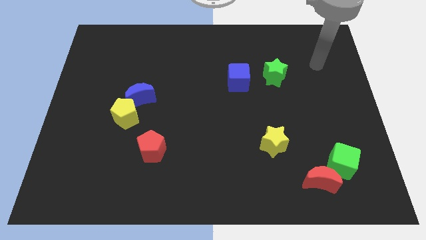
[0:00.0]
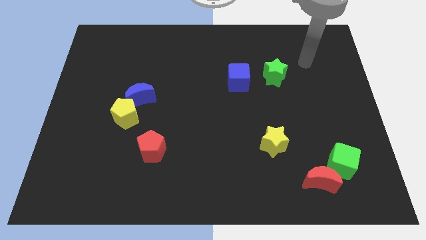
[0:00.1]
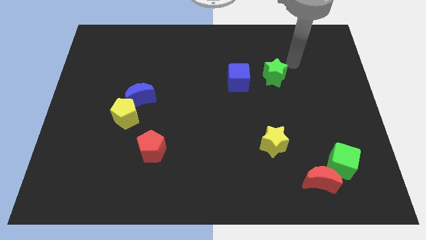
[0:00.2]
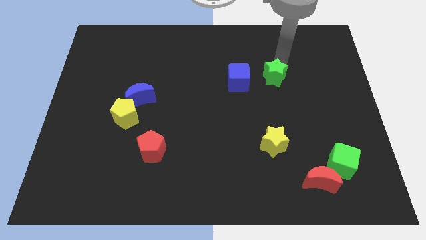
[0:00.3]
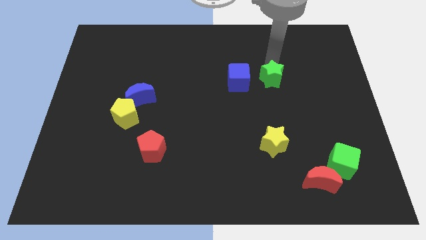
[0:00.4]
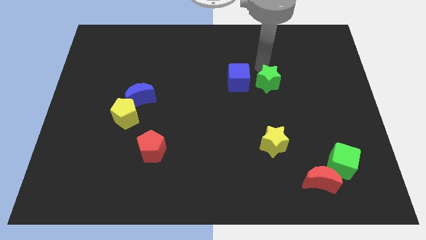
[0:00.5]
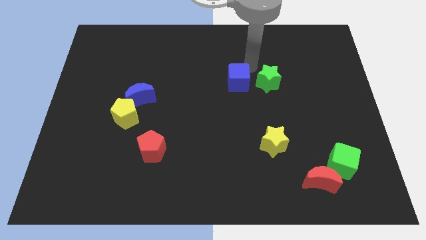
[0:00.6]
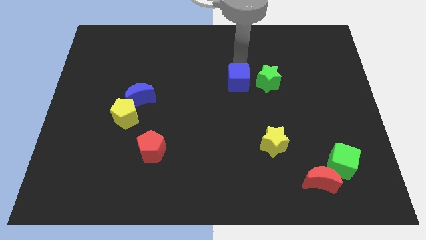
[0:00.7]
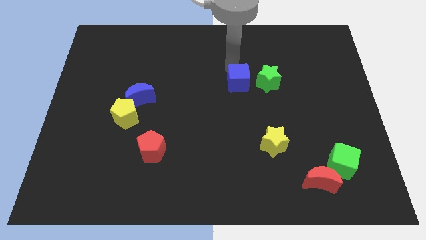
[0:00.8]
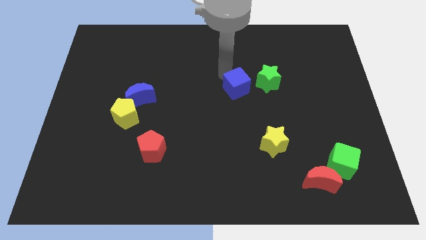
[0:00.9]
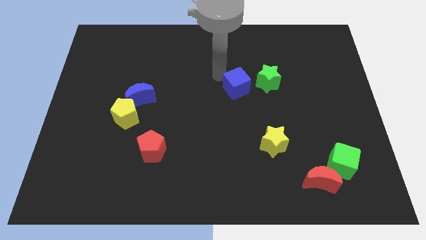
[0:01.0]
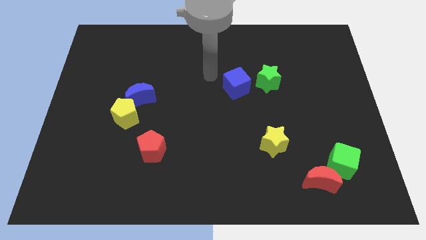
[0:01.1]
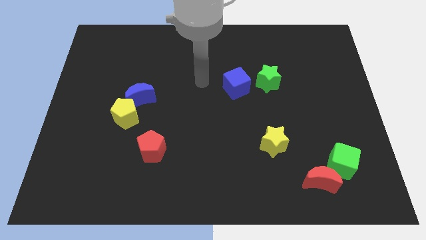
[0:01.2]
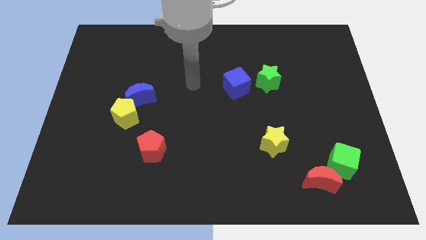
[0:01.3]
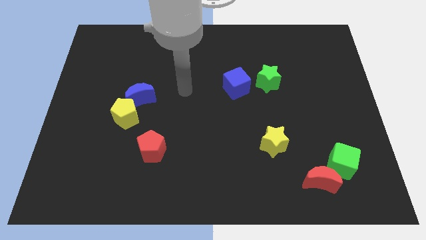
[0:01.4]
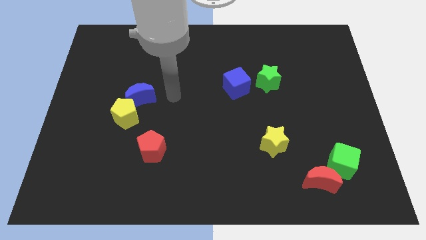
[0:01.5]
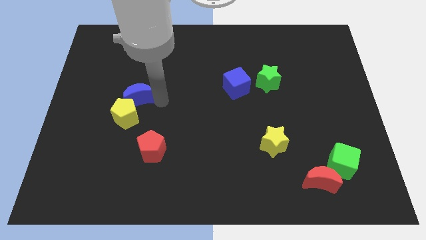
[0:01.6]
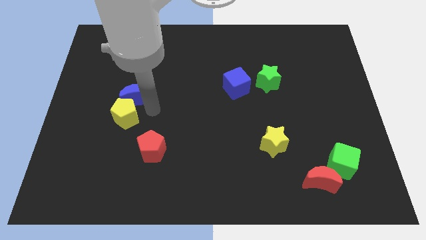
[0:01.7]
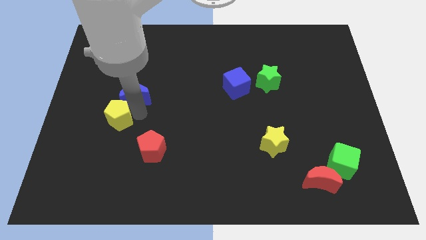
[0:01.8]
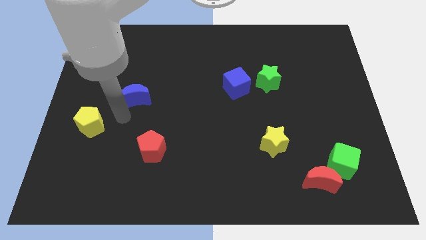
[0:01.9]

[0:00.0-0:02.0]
move the blue moon away from the yellow pentagon

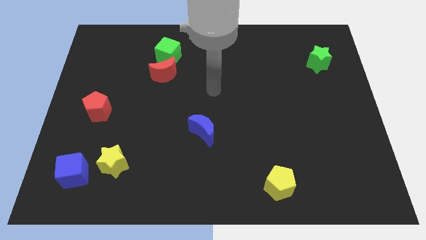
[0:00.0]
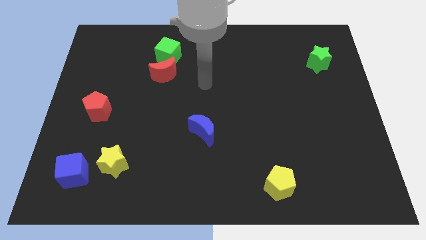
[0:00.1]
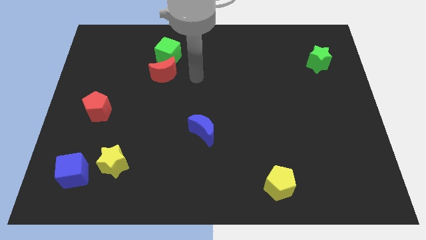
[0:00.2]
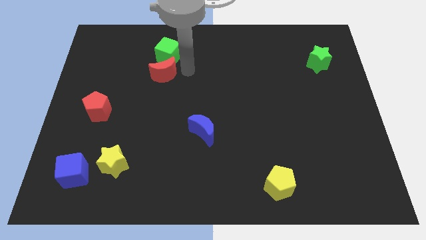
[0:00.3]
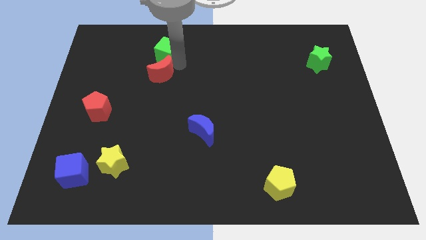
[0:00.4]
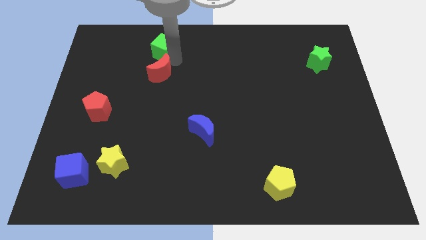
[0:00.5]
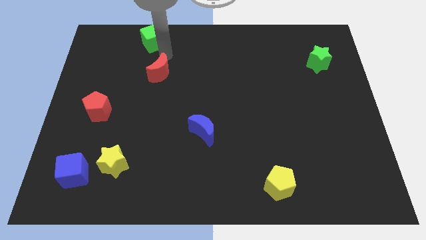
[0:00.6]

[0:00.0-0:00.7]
move the red moon away from the green cube

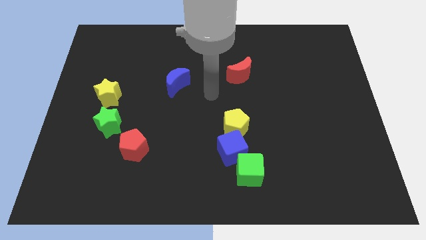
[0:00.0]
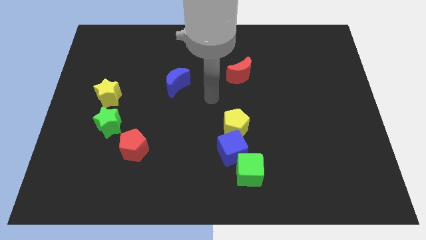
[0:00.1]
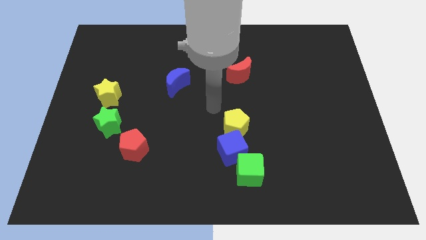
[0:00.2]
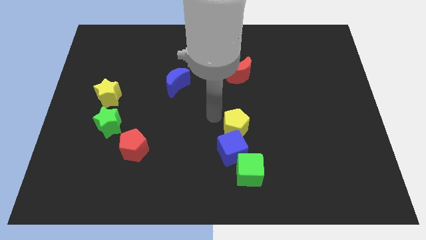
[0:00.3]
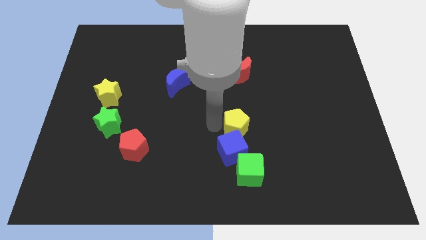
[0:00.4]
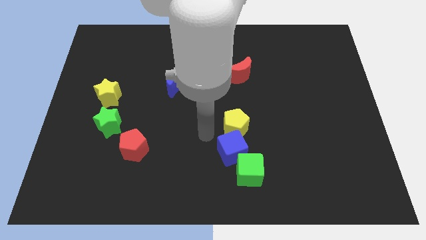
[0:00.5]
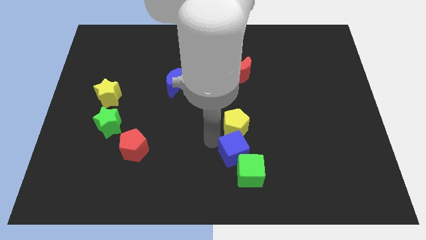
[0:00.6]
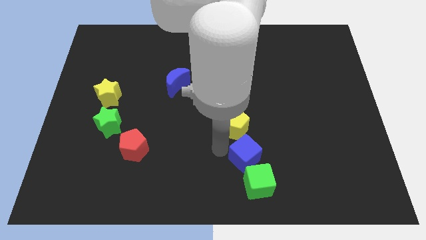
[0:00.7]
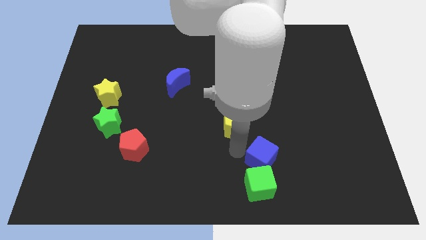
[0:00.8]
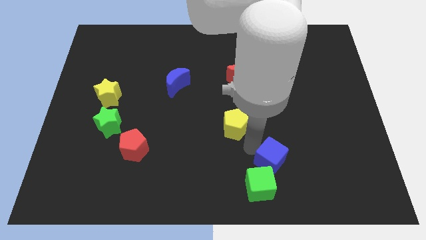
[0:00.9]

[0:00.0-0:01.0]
move the yellow pentagon away from the blue cube

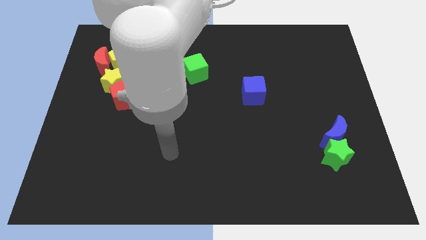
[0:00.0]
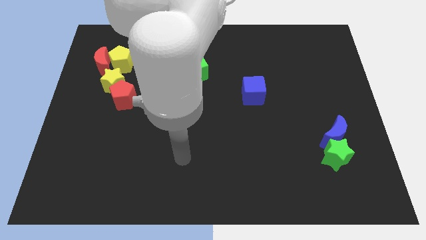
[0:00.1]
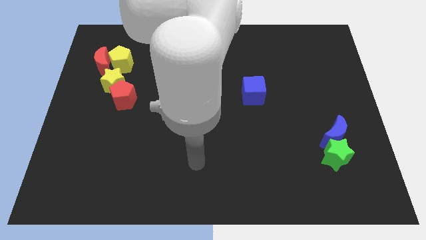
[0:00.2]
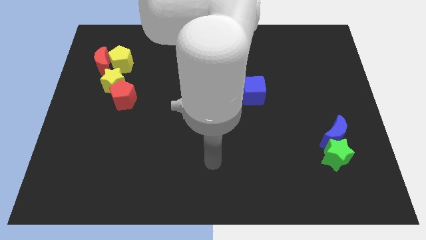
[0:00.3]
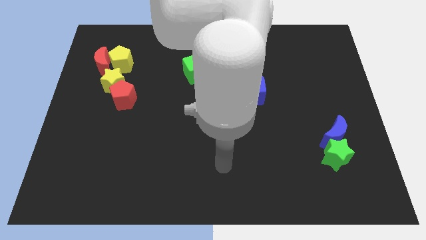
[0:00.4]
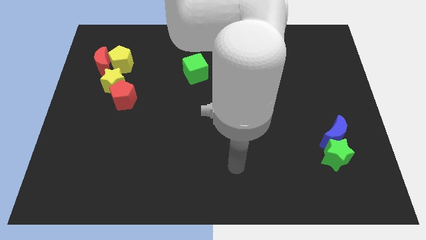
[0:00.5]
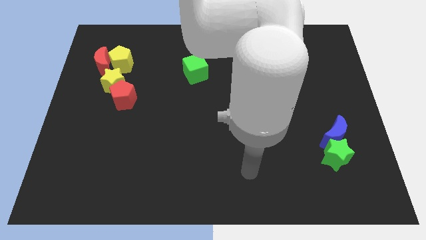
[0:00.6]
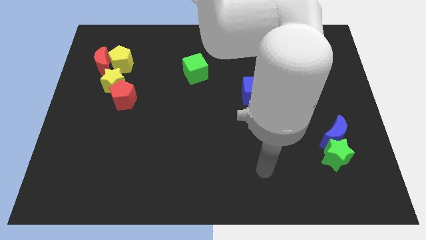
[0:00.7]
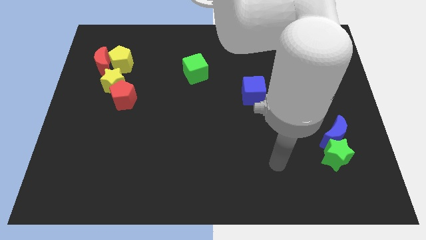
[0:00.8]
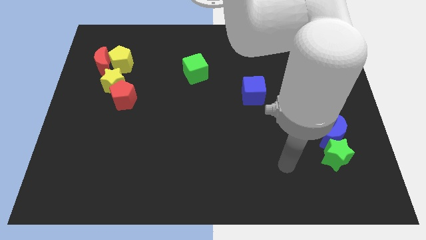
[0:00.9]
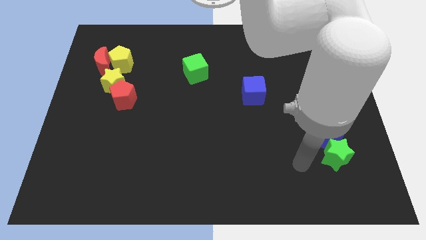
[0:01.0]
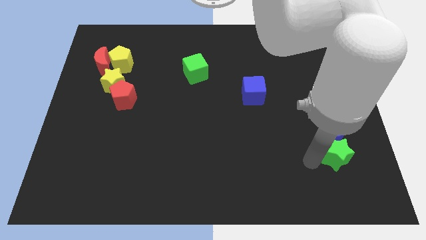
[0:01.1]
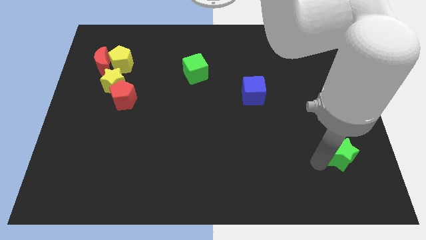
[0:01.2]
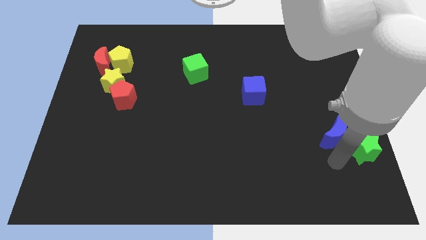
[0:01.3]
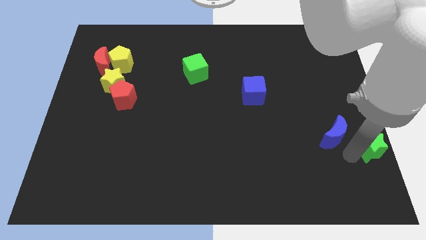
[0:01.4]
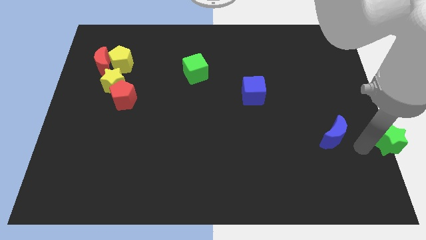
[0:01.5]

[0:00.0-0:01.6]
separate the blue moon from the green star

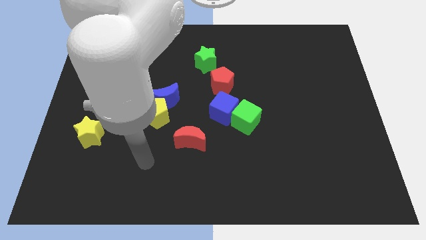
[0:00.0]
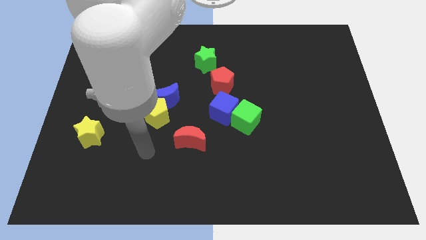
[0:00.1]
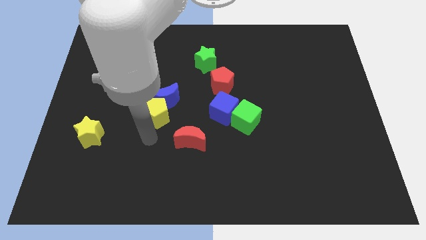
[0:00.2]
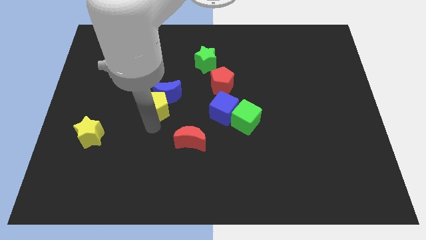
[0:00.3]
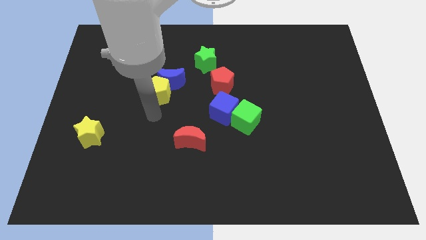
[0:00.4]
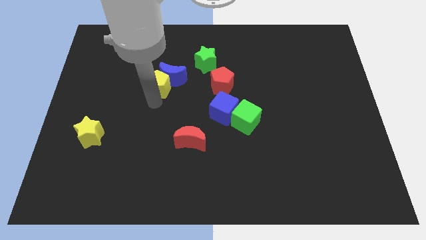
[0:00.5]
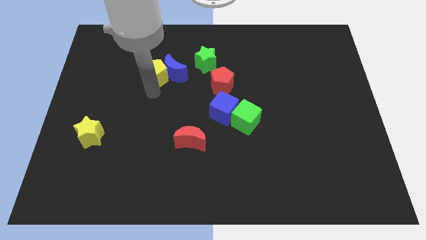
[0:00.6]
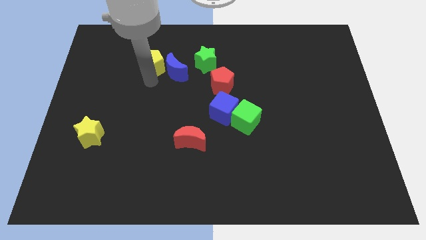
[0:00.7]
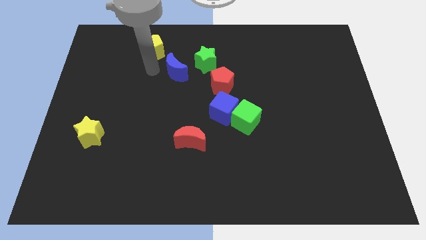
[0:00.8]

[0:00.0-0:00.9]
separate the blue moon from the yellow pentagon

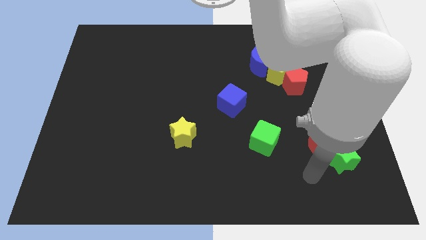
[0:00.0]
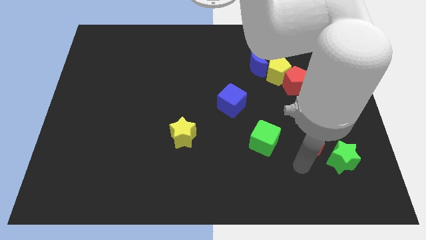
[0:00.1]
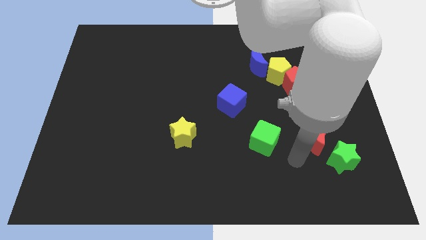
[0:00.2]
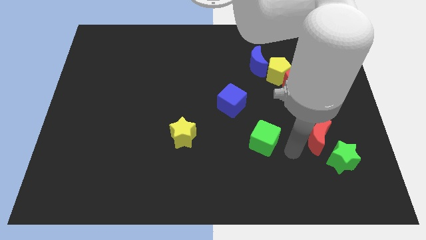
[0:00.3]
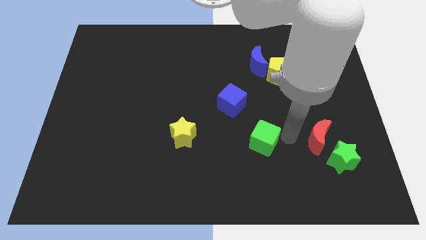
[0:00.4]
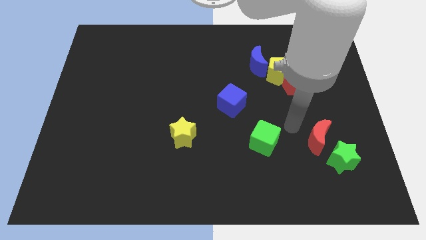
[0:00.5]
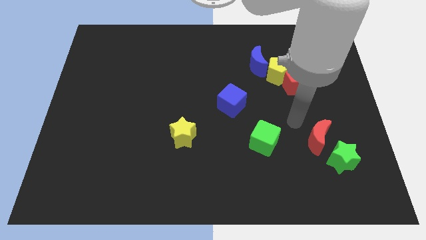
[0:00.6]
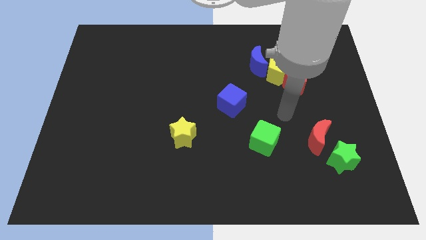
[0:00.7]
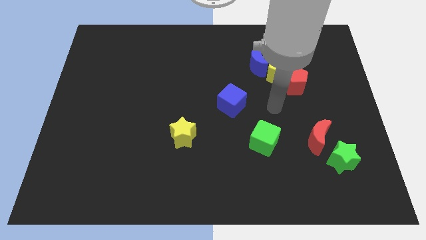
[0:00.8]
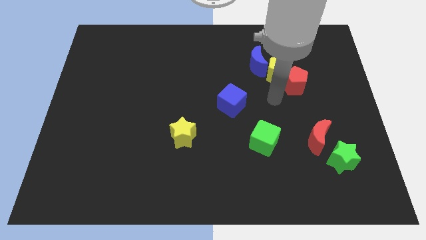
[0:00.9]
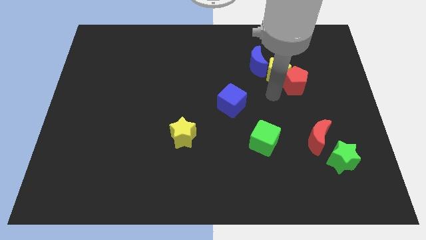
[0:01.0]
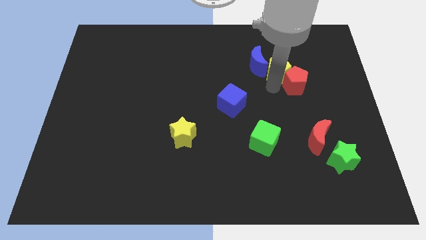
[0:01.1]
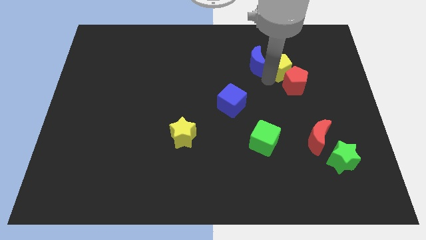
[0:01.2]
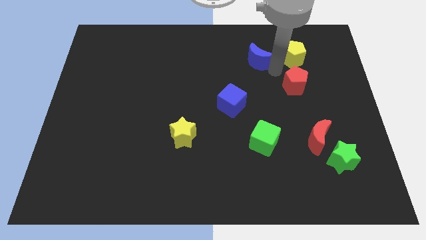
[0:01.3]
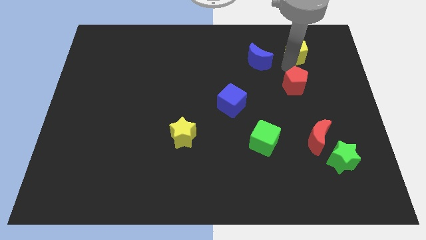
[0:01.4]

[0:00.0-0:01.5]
pull the red pentagon apart from the yellow pentagon

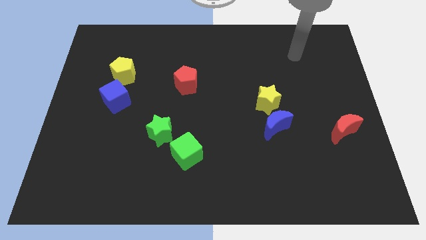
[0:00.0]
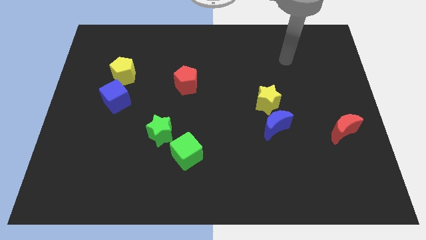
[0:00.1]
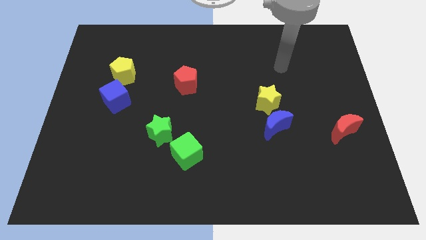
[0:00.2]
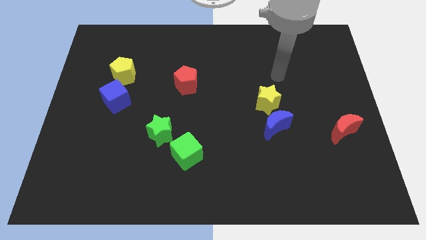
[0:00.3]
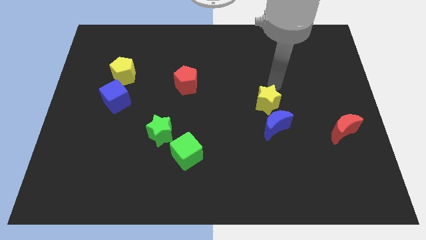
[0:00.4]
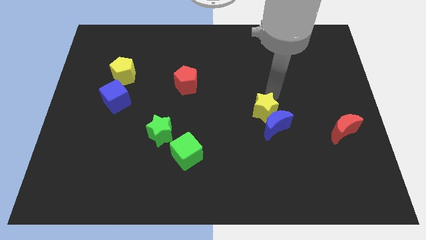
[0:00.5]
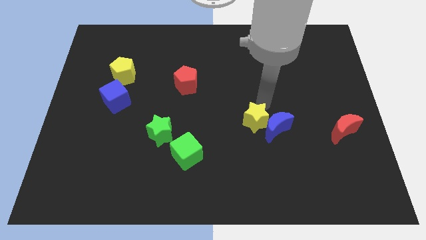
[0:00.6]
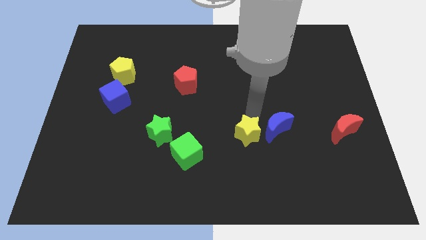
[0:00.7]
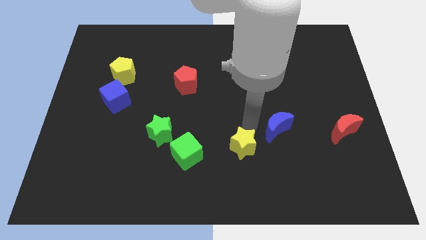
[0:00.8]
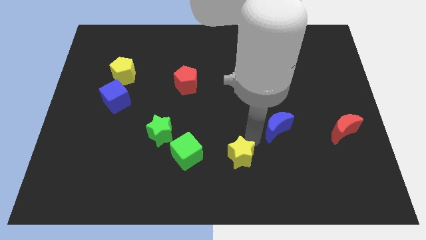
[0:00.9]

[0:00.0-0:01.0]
move the blue moon away from the yellow star

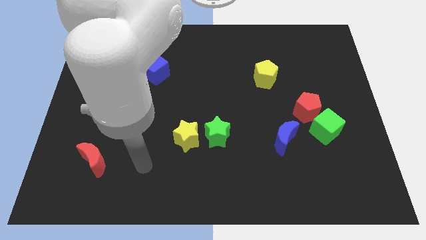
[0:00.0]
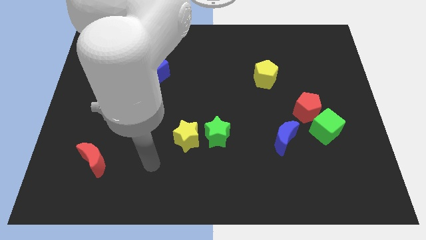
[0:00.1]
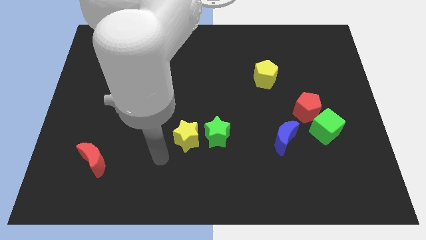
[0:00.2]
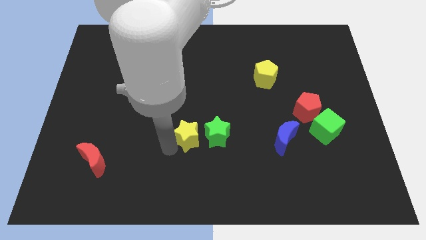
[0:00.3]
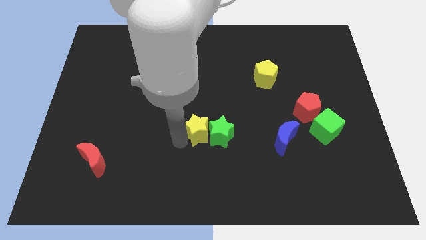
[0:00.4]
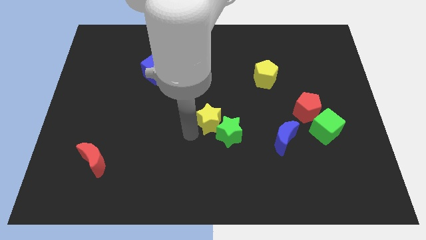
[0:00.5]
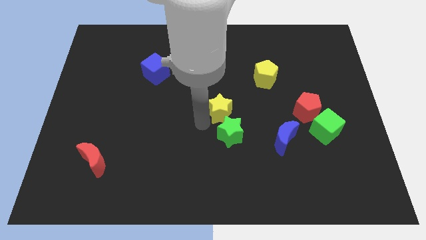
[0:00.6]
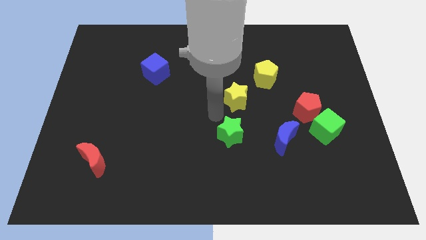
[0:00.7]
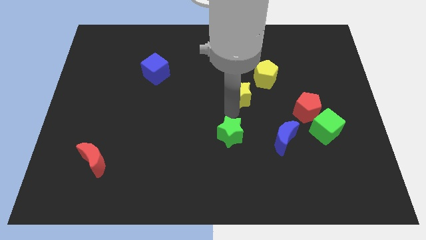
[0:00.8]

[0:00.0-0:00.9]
separate the green star from the yellow star
